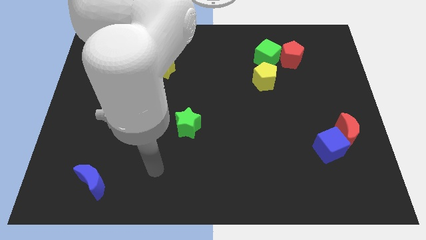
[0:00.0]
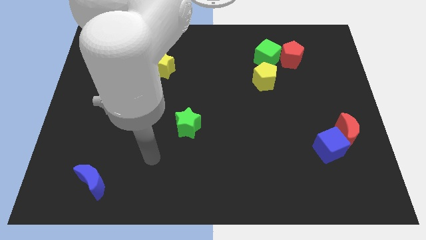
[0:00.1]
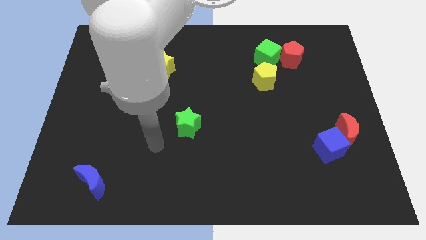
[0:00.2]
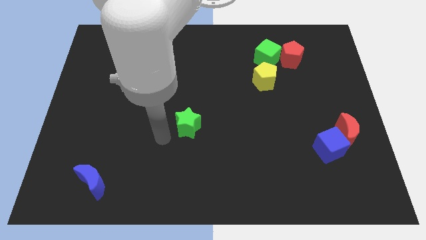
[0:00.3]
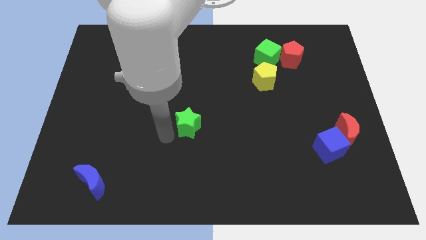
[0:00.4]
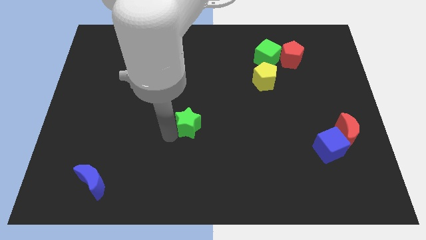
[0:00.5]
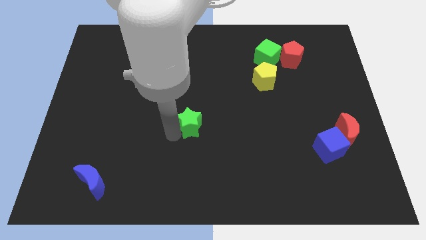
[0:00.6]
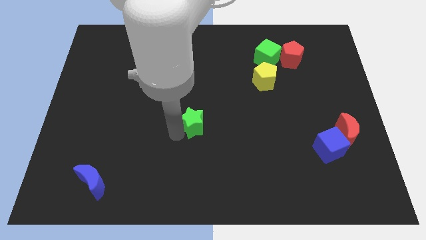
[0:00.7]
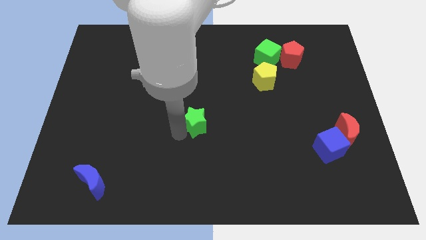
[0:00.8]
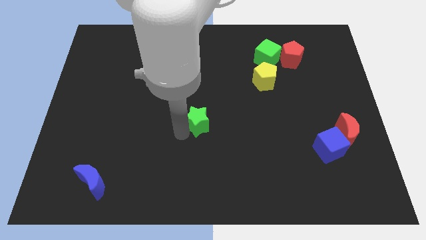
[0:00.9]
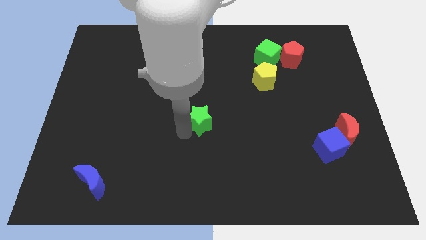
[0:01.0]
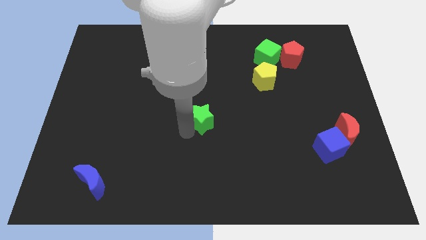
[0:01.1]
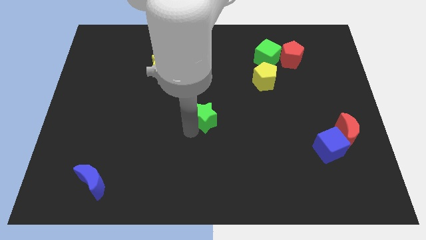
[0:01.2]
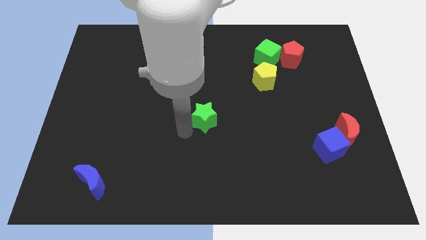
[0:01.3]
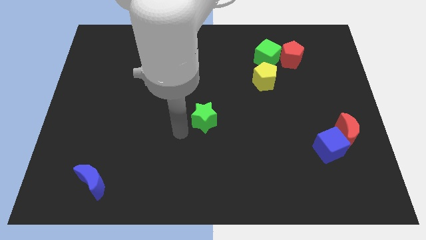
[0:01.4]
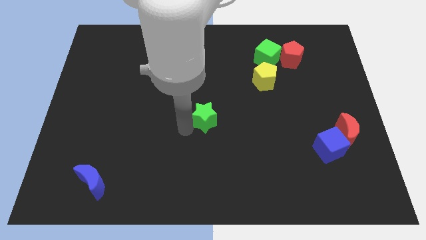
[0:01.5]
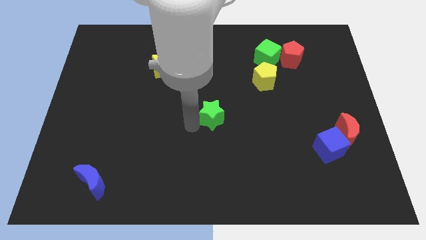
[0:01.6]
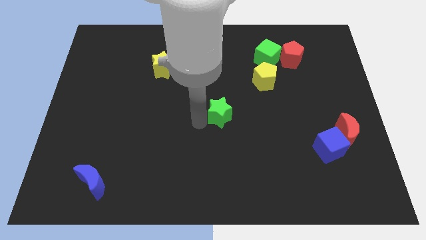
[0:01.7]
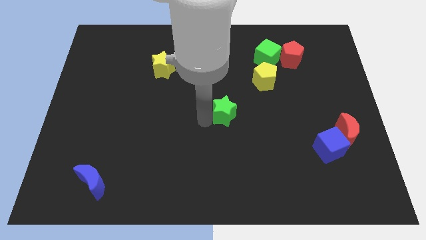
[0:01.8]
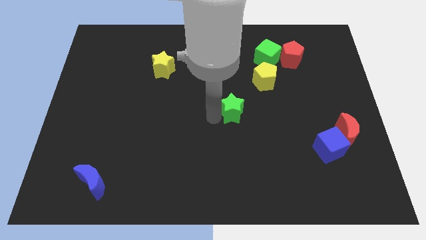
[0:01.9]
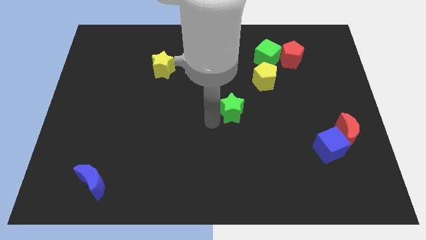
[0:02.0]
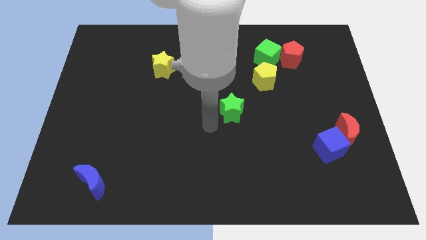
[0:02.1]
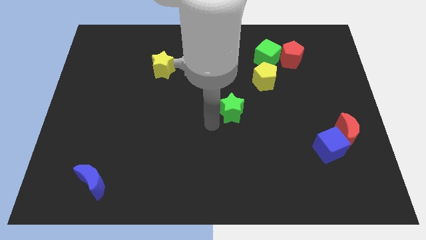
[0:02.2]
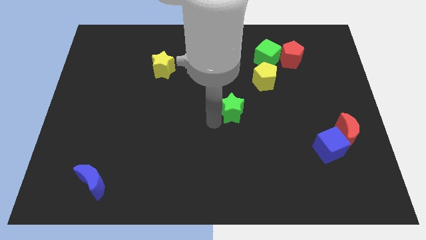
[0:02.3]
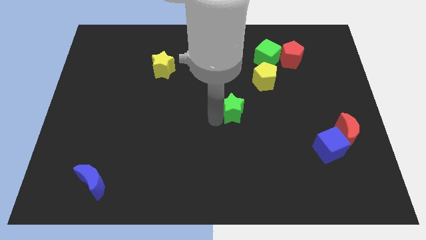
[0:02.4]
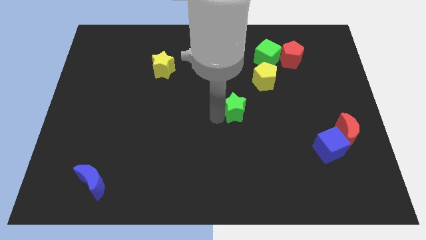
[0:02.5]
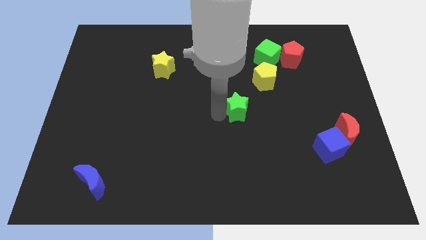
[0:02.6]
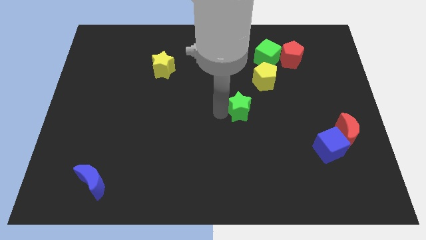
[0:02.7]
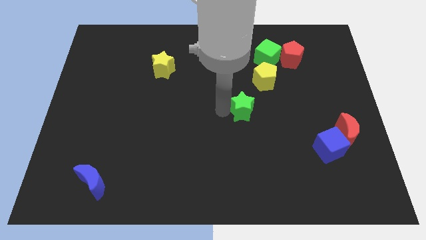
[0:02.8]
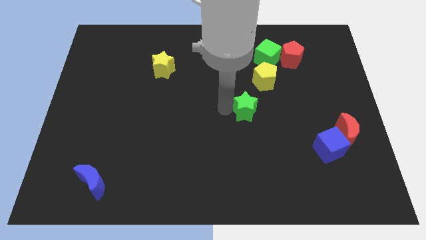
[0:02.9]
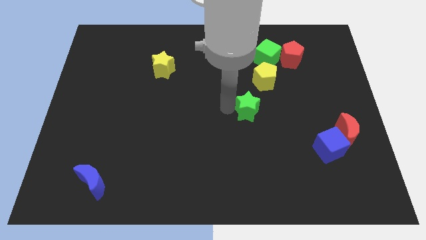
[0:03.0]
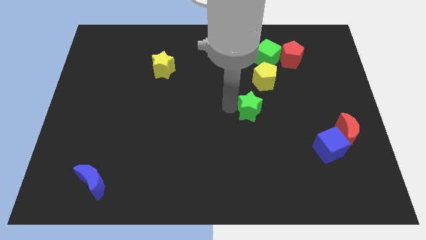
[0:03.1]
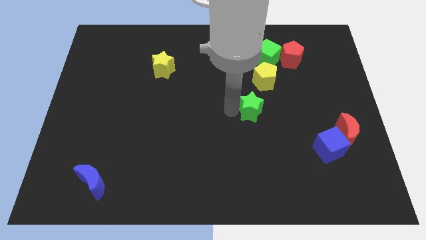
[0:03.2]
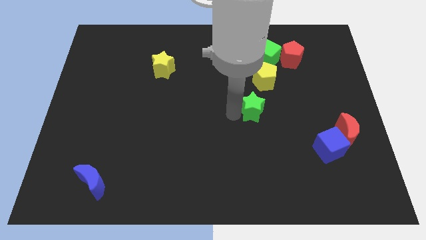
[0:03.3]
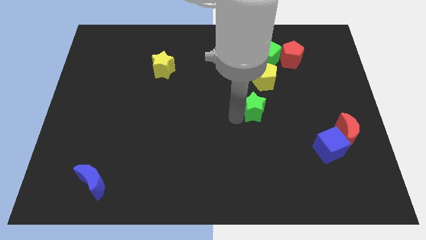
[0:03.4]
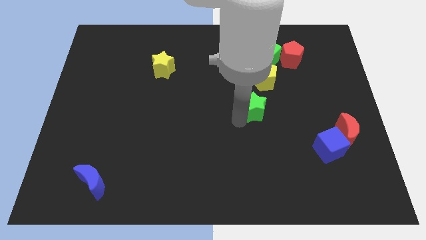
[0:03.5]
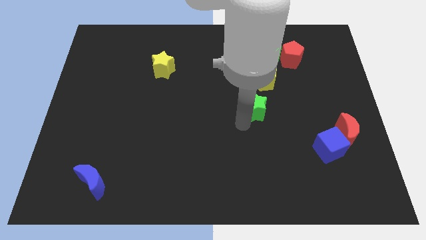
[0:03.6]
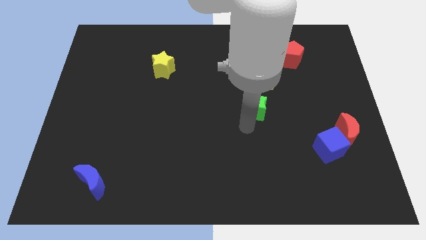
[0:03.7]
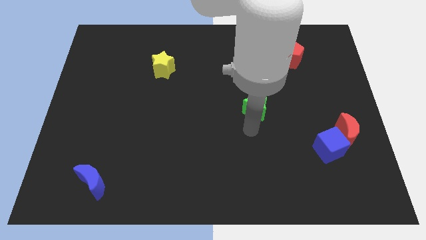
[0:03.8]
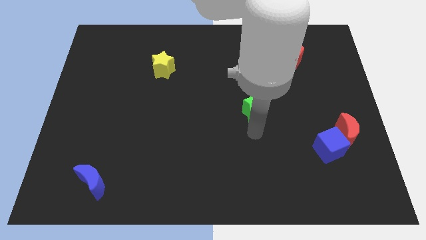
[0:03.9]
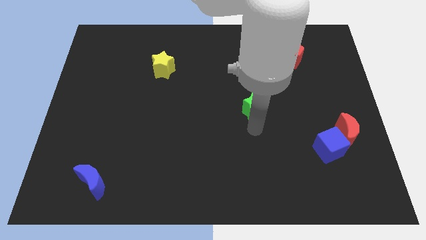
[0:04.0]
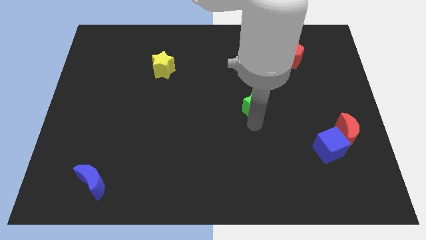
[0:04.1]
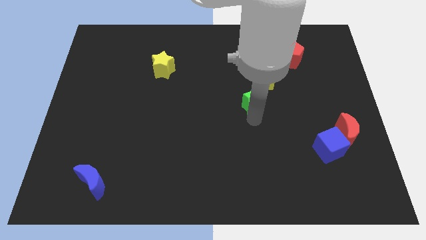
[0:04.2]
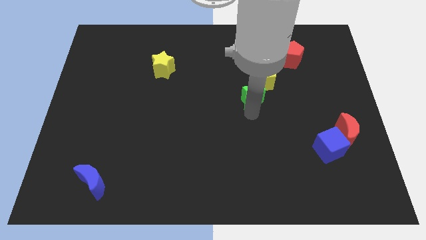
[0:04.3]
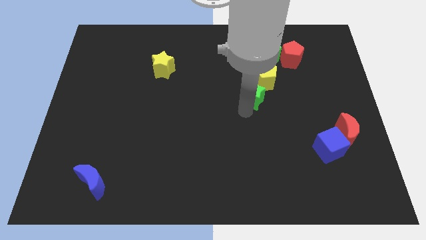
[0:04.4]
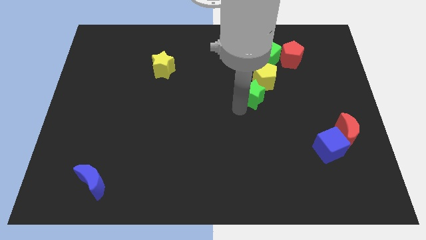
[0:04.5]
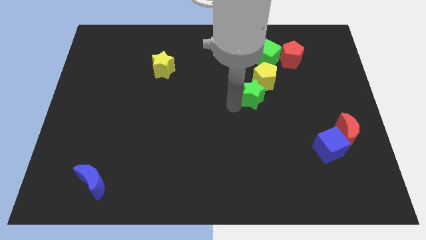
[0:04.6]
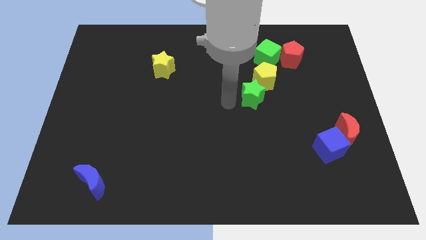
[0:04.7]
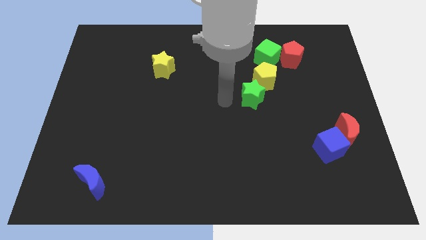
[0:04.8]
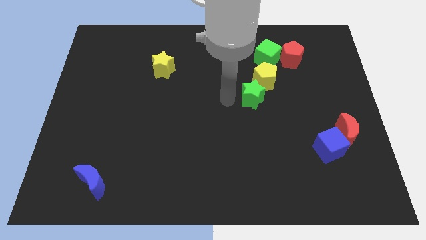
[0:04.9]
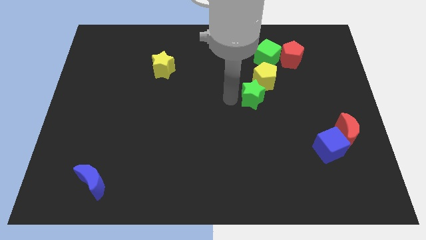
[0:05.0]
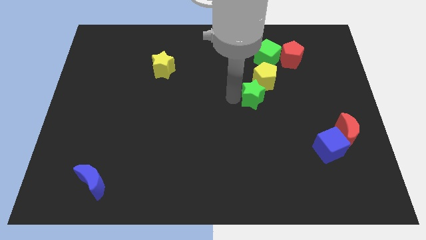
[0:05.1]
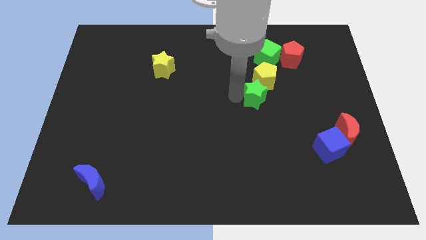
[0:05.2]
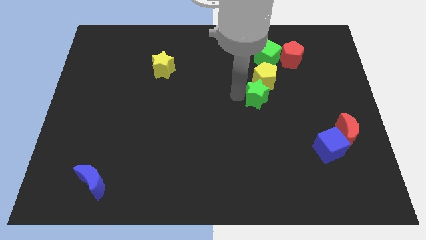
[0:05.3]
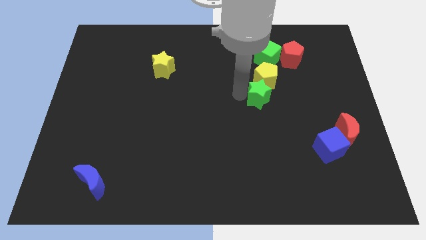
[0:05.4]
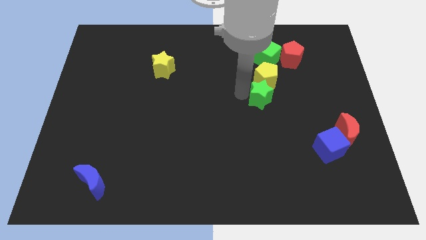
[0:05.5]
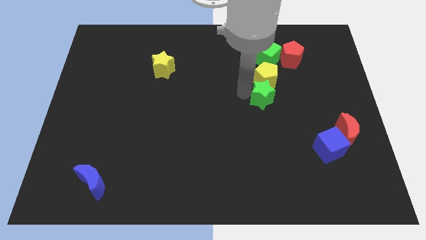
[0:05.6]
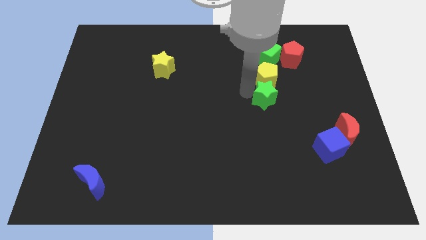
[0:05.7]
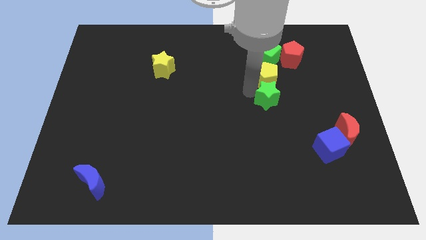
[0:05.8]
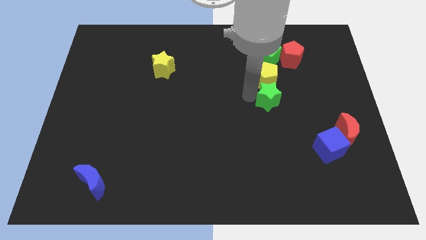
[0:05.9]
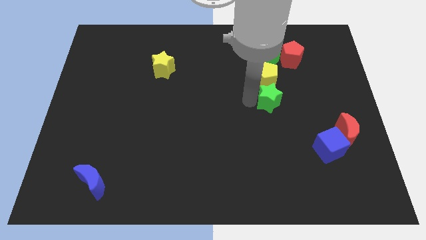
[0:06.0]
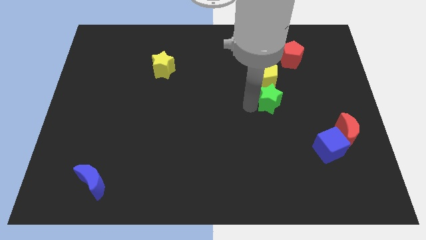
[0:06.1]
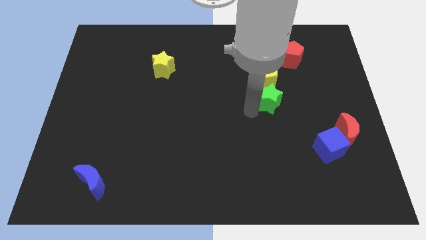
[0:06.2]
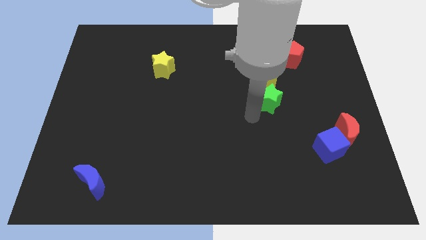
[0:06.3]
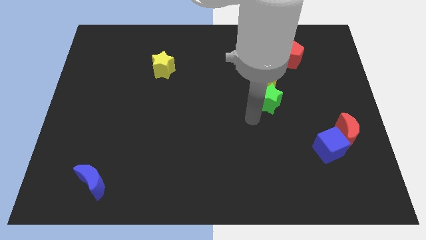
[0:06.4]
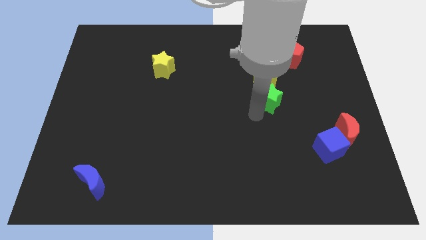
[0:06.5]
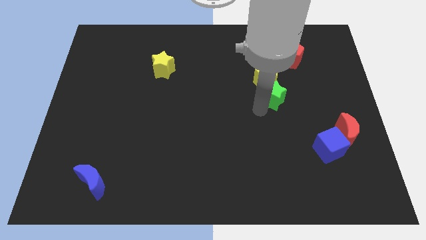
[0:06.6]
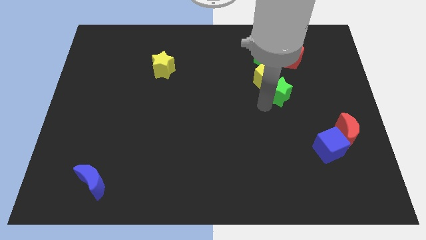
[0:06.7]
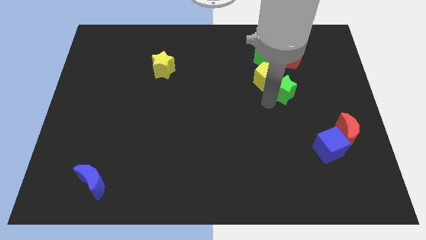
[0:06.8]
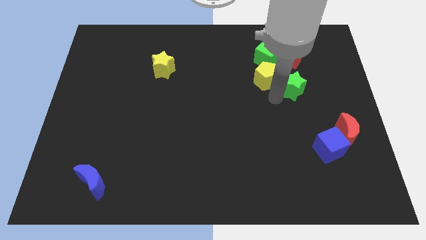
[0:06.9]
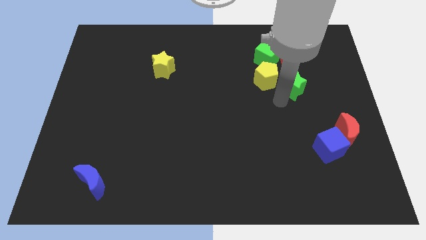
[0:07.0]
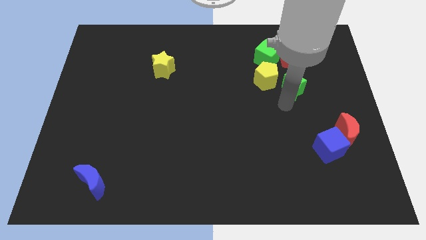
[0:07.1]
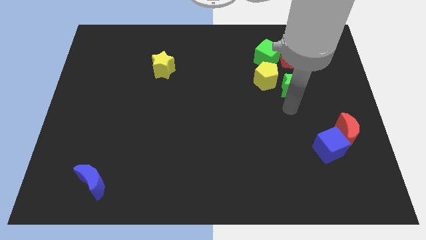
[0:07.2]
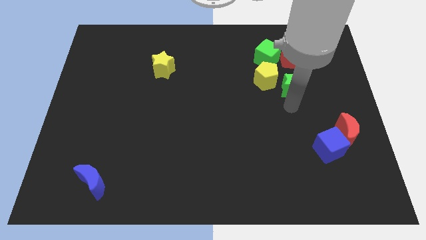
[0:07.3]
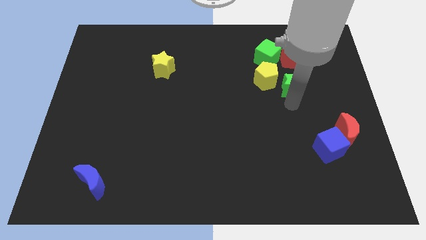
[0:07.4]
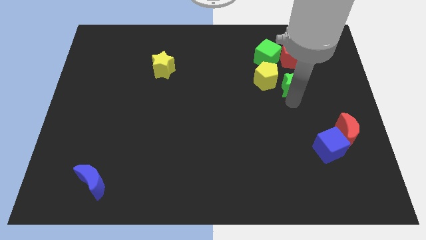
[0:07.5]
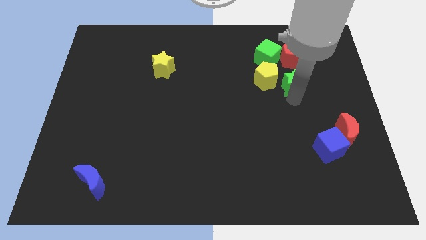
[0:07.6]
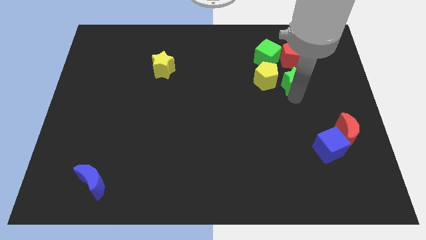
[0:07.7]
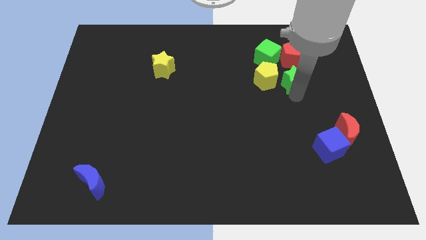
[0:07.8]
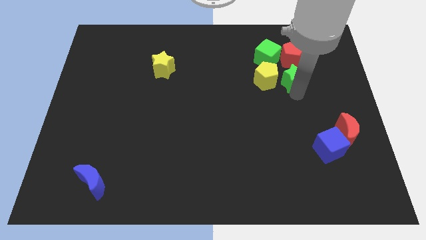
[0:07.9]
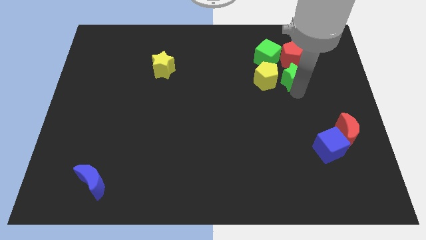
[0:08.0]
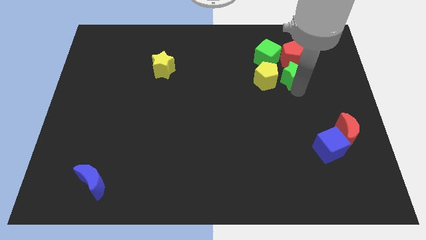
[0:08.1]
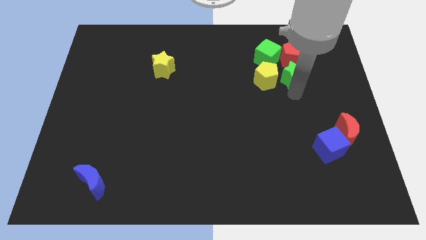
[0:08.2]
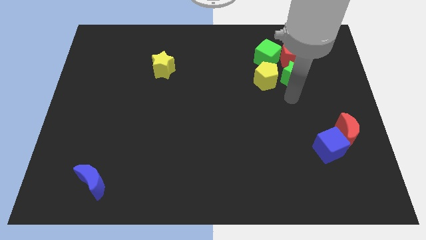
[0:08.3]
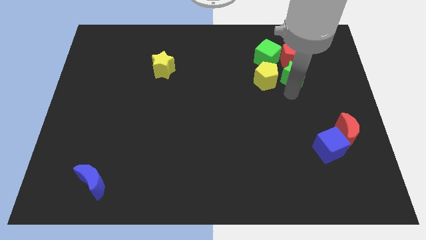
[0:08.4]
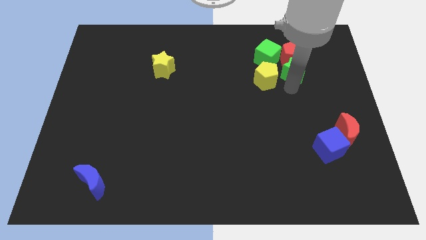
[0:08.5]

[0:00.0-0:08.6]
push the green star to the red pentagon
